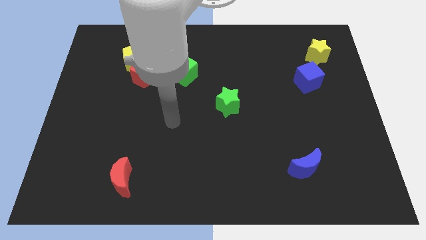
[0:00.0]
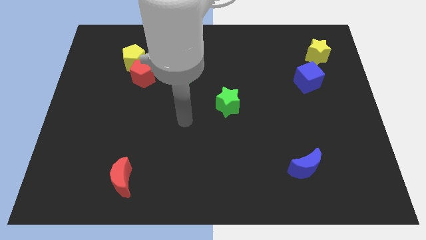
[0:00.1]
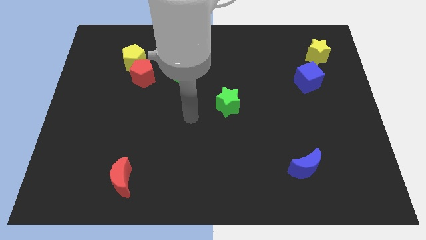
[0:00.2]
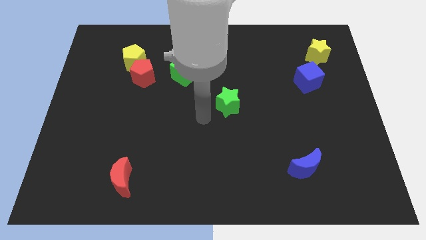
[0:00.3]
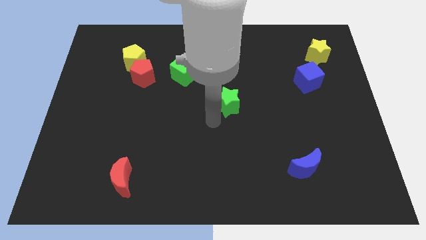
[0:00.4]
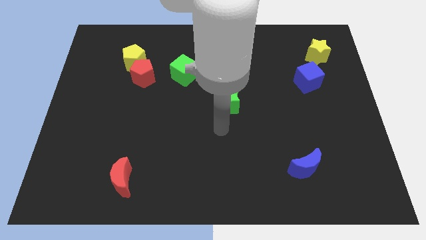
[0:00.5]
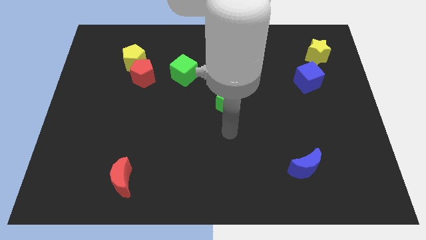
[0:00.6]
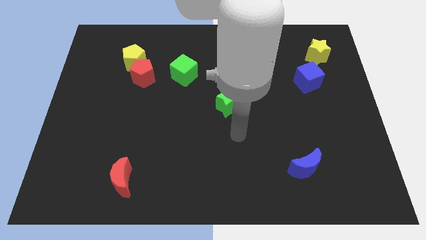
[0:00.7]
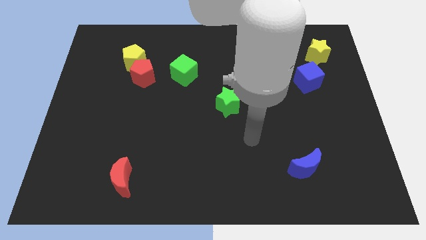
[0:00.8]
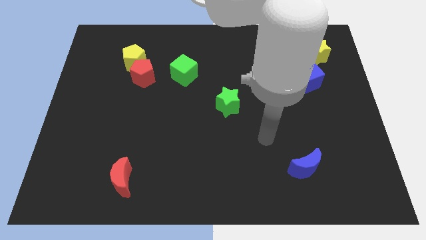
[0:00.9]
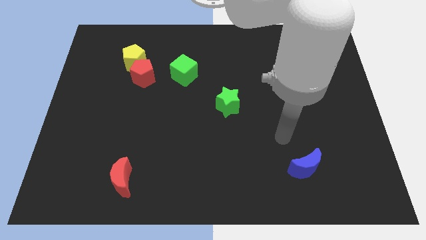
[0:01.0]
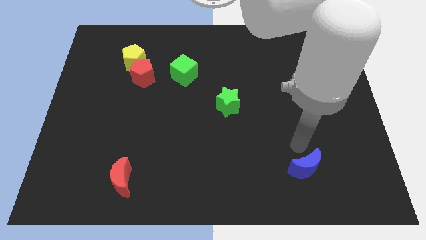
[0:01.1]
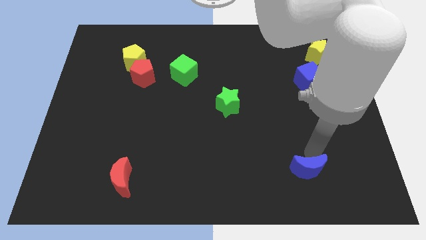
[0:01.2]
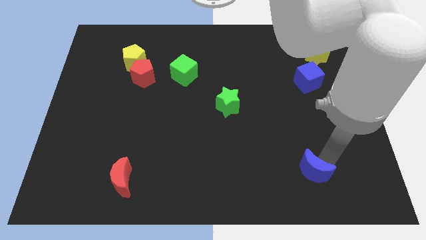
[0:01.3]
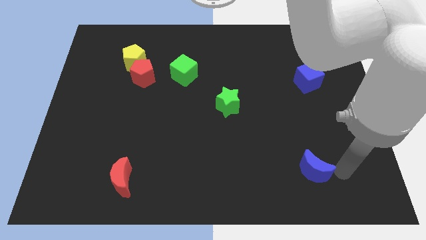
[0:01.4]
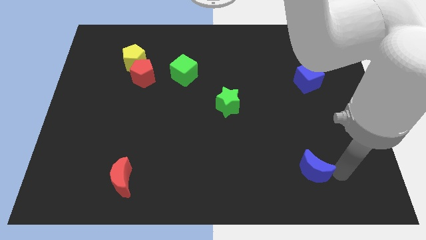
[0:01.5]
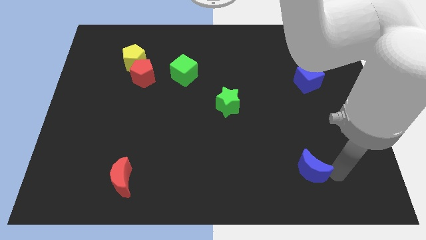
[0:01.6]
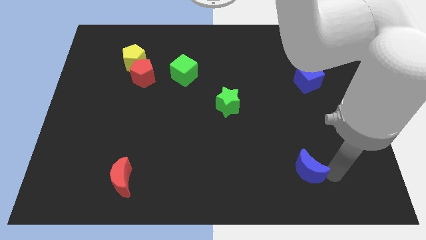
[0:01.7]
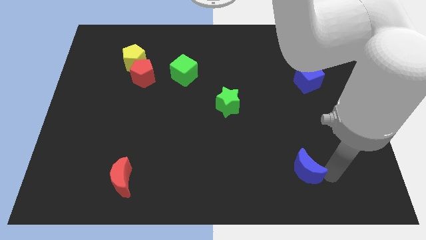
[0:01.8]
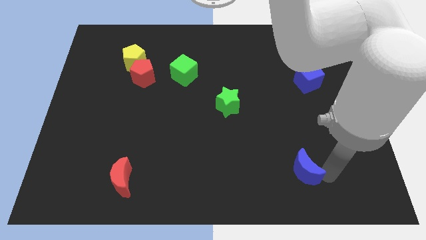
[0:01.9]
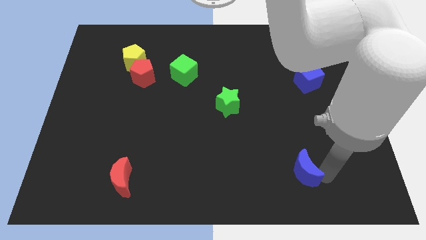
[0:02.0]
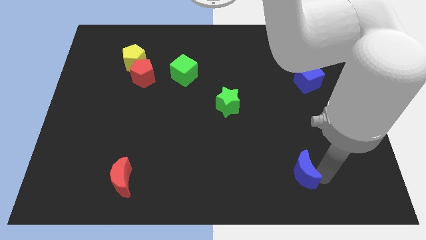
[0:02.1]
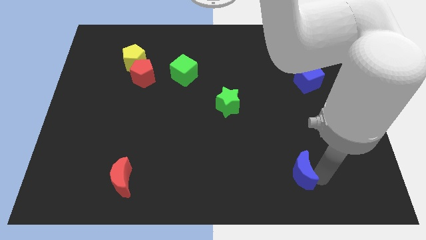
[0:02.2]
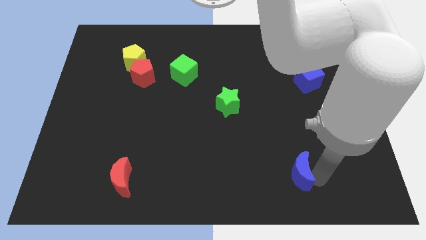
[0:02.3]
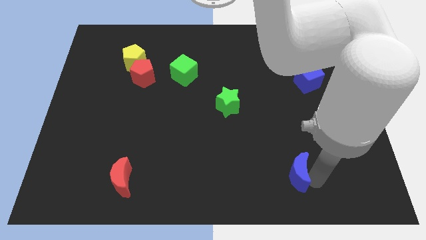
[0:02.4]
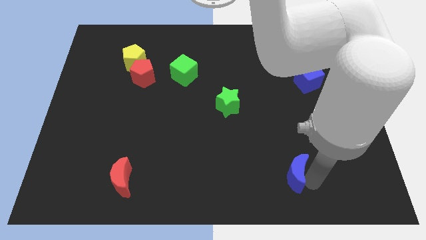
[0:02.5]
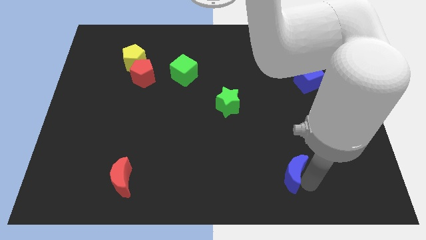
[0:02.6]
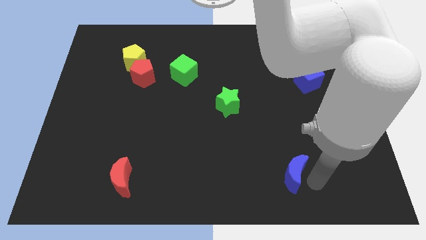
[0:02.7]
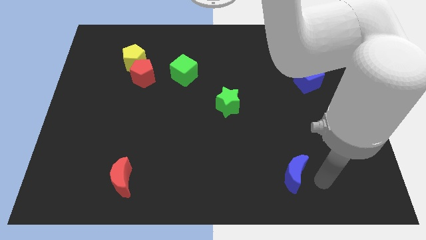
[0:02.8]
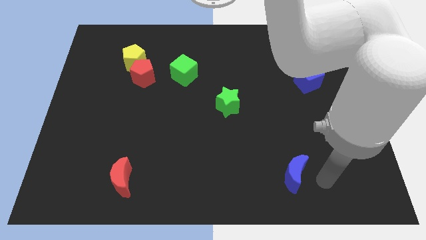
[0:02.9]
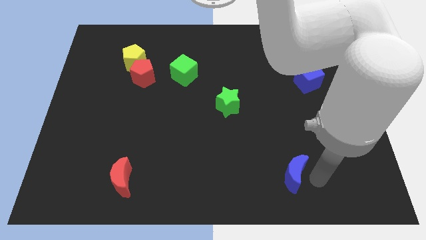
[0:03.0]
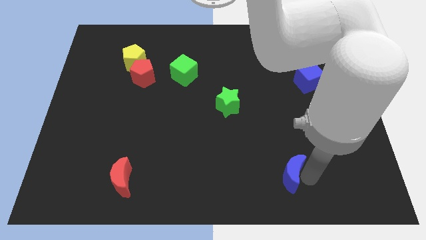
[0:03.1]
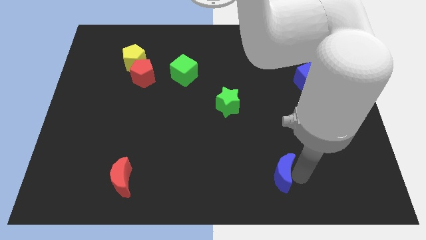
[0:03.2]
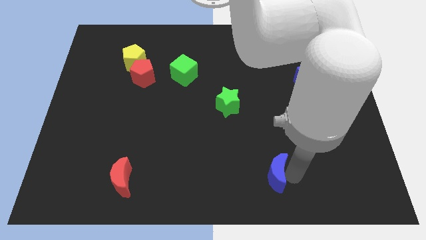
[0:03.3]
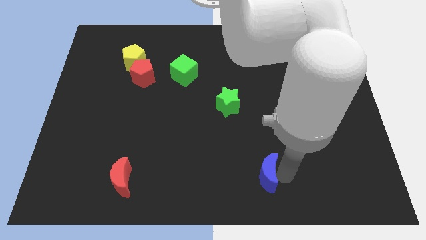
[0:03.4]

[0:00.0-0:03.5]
push the blue moon slightly left

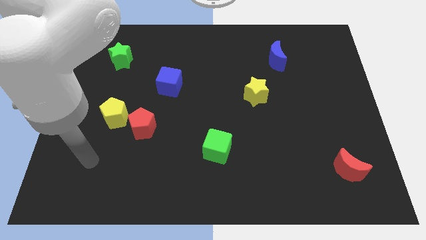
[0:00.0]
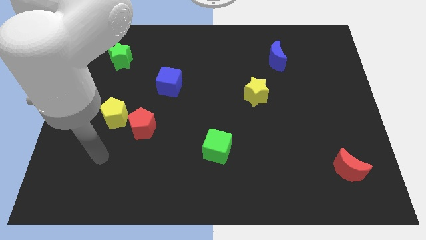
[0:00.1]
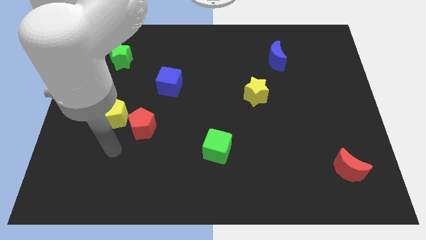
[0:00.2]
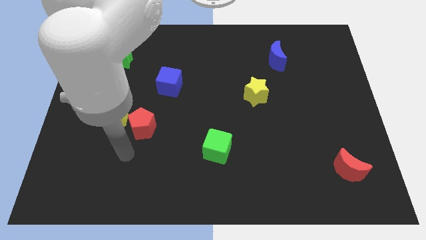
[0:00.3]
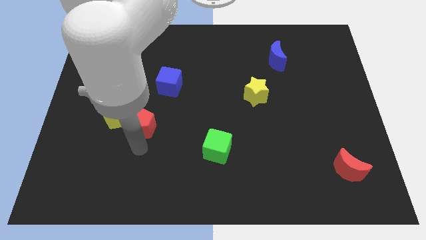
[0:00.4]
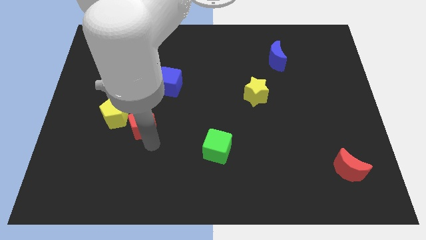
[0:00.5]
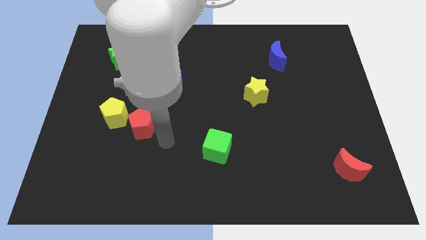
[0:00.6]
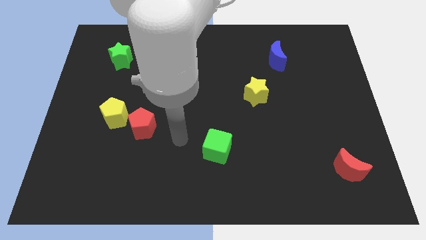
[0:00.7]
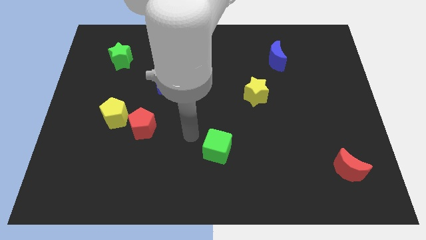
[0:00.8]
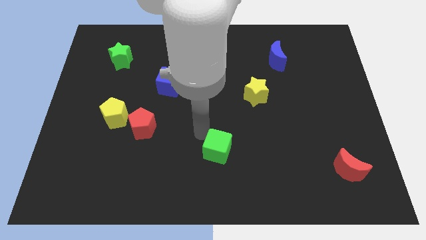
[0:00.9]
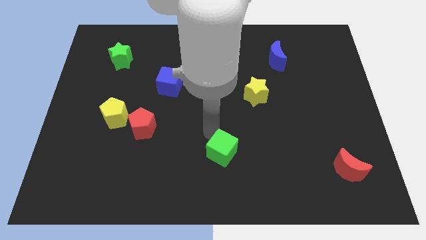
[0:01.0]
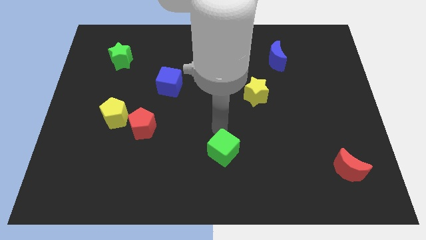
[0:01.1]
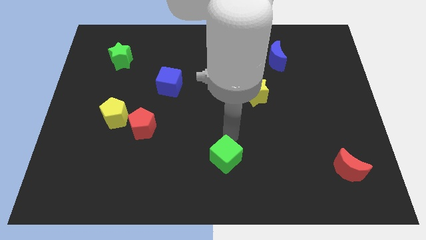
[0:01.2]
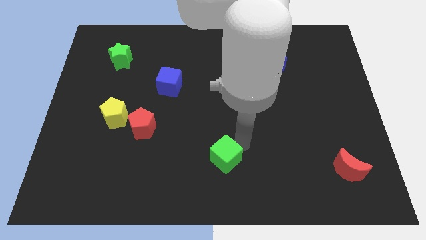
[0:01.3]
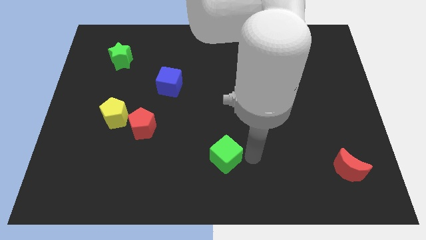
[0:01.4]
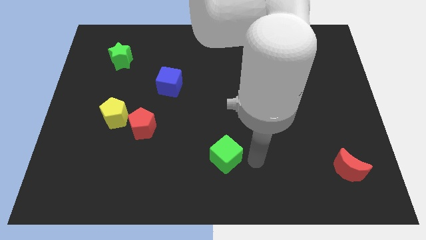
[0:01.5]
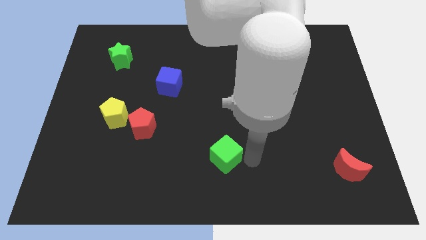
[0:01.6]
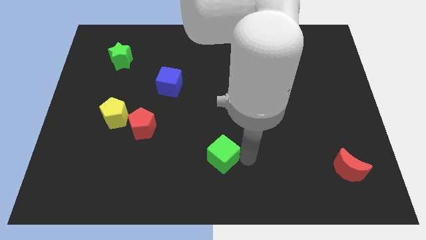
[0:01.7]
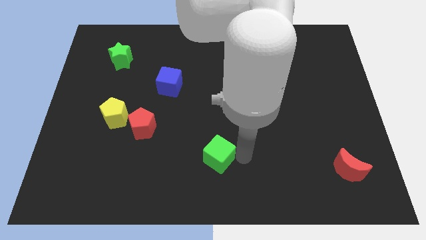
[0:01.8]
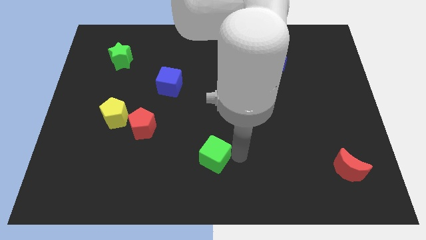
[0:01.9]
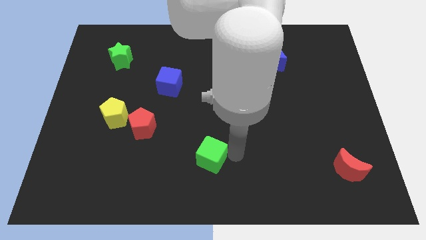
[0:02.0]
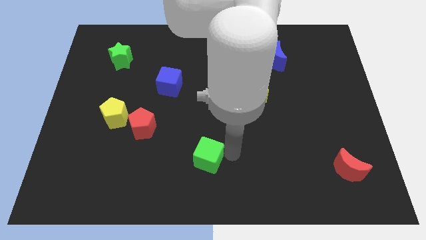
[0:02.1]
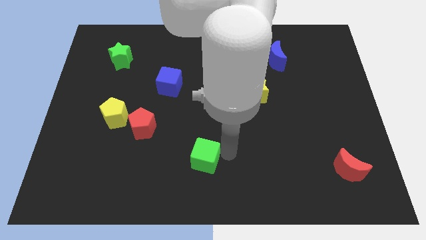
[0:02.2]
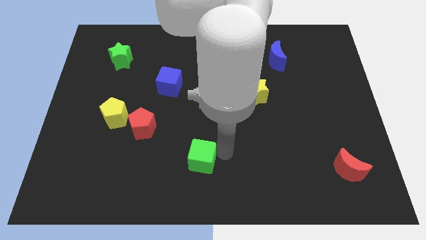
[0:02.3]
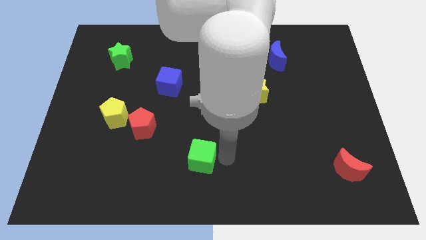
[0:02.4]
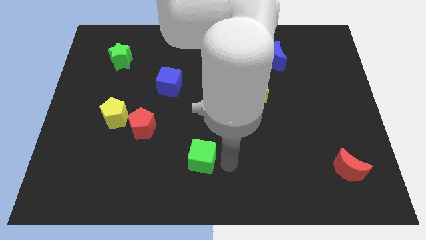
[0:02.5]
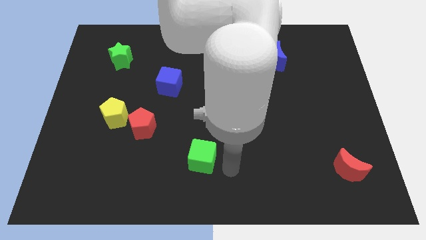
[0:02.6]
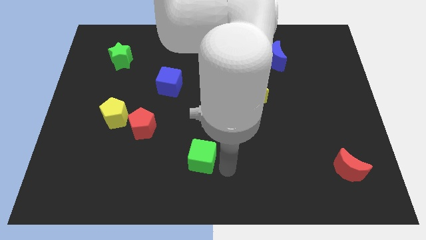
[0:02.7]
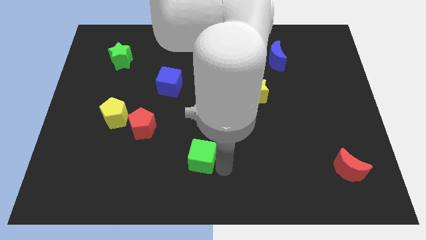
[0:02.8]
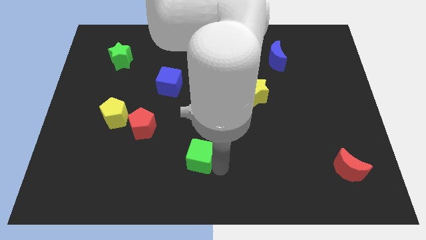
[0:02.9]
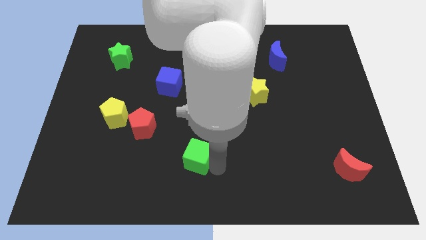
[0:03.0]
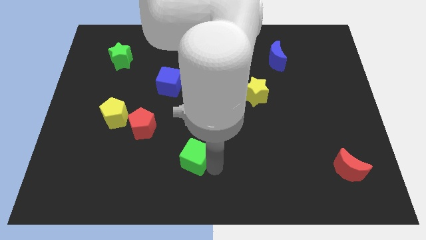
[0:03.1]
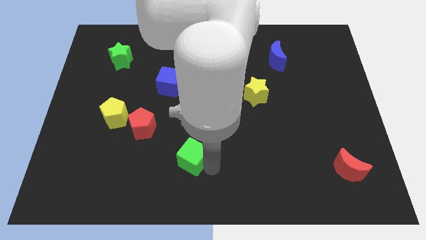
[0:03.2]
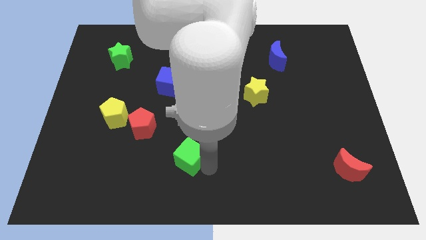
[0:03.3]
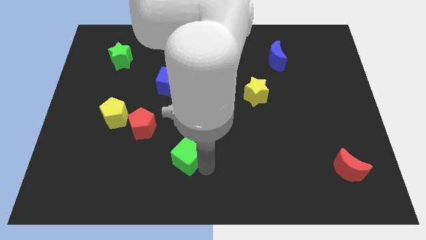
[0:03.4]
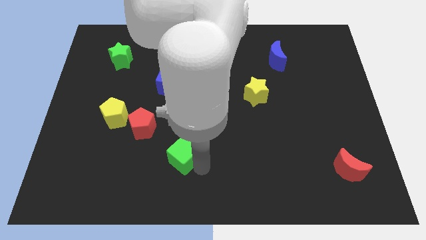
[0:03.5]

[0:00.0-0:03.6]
move the green cube to the left slightly

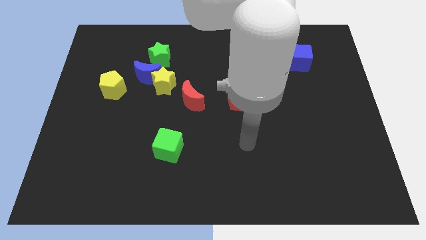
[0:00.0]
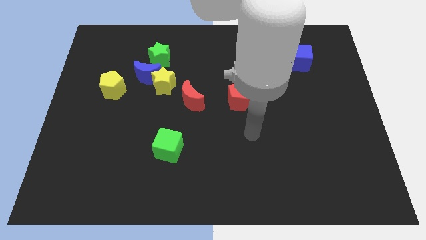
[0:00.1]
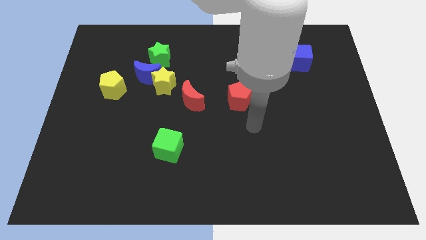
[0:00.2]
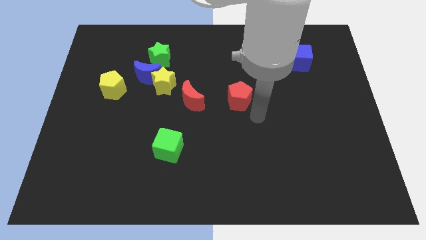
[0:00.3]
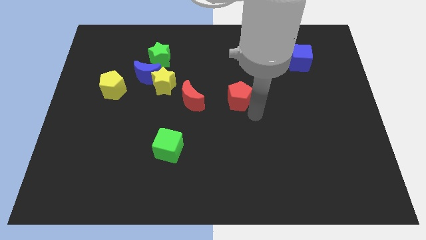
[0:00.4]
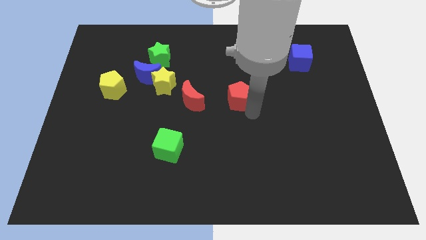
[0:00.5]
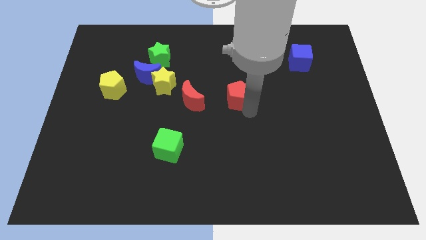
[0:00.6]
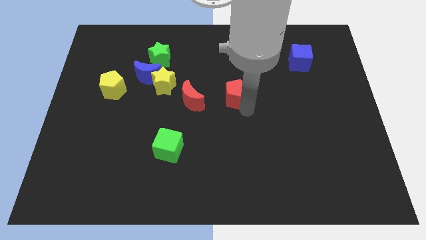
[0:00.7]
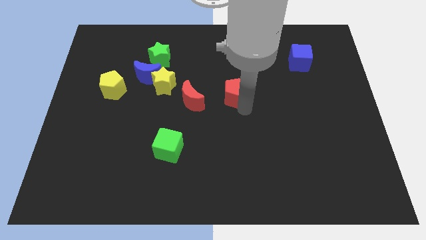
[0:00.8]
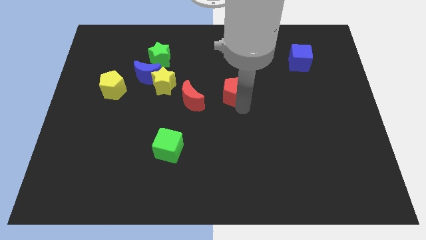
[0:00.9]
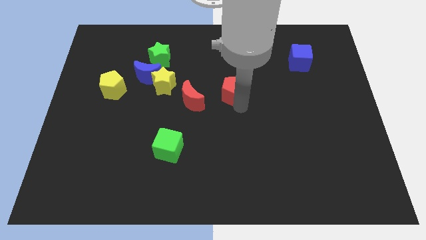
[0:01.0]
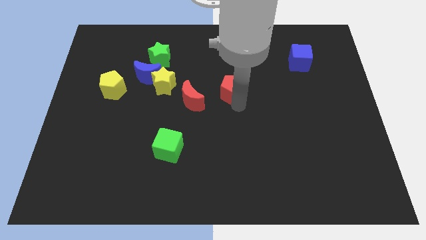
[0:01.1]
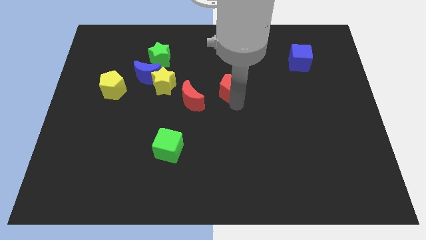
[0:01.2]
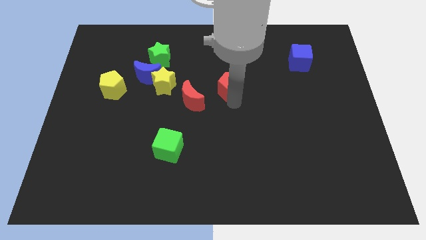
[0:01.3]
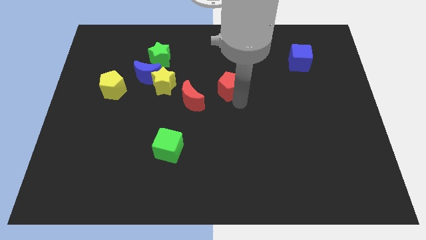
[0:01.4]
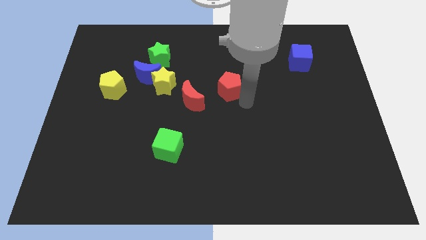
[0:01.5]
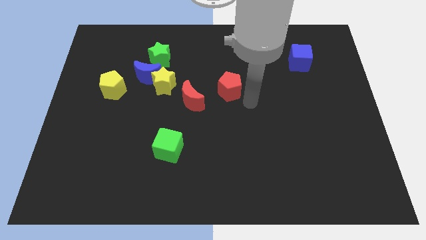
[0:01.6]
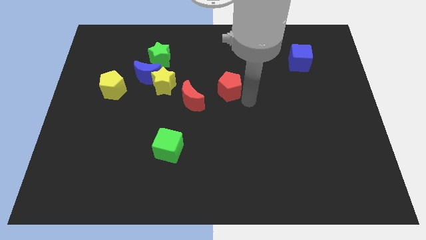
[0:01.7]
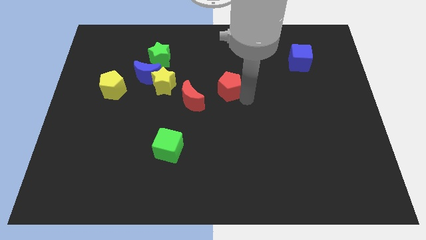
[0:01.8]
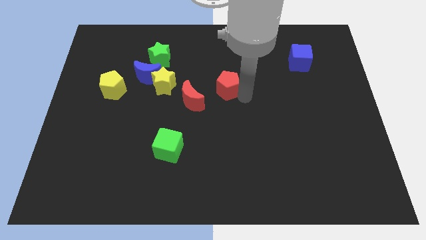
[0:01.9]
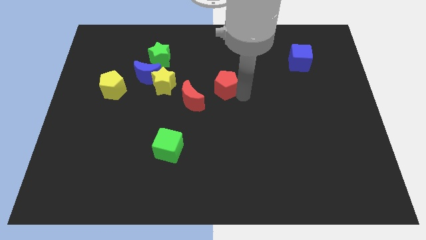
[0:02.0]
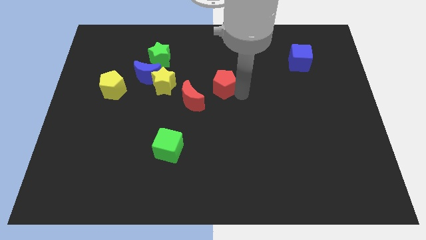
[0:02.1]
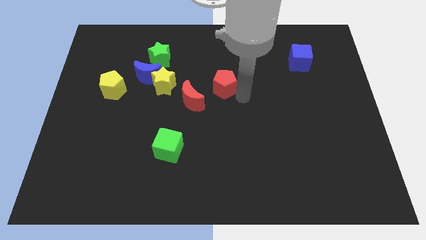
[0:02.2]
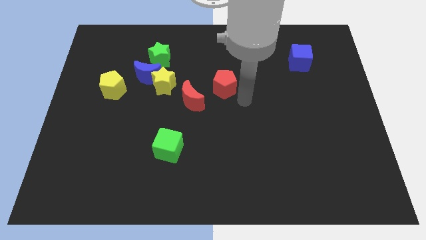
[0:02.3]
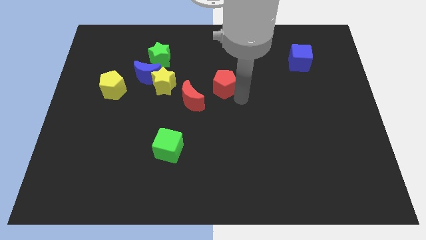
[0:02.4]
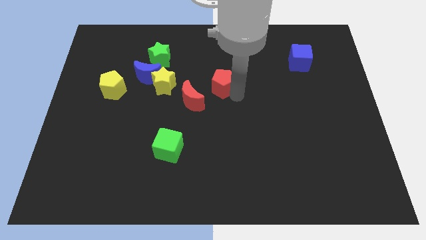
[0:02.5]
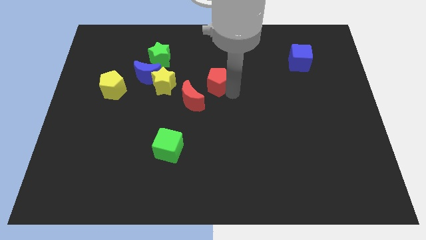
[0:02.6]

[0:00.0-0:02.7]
slide the red pentagon upwards and to the left a bit
